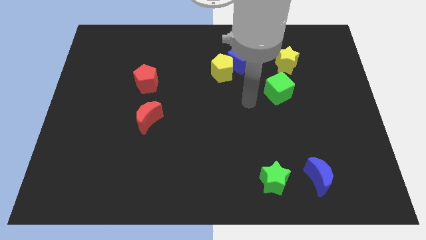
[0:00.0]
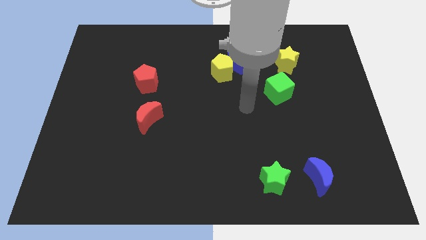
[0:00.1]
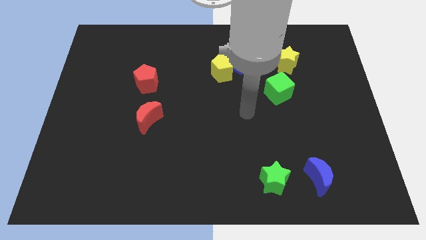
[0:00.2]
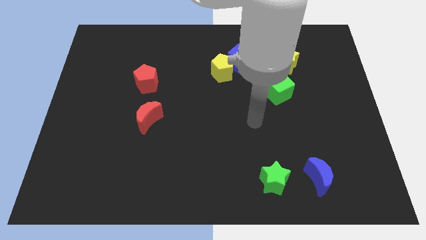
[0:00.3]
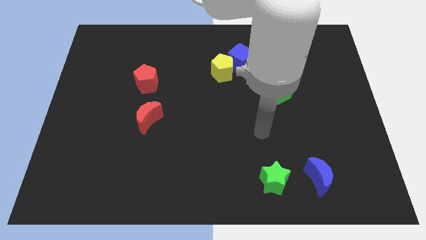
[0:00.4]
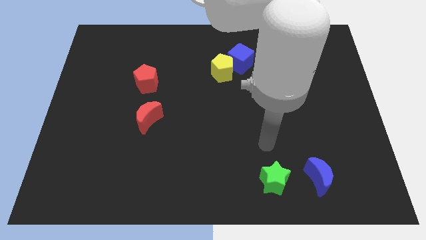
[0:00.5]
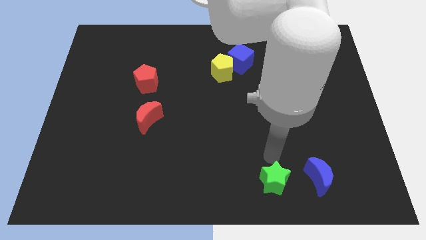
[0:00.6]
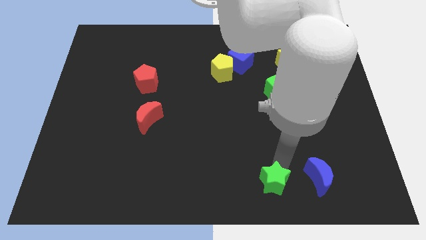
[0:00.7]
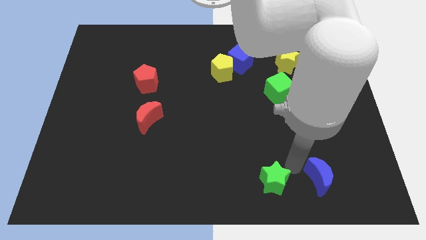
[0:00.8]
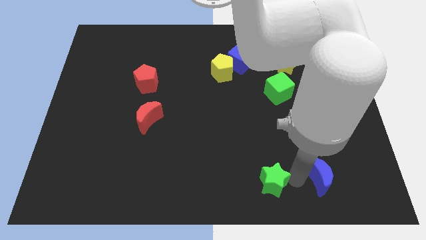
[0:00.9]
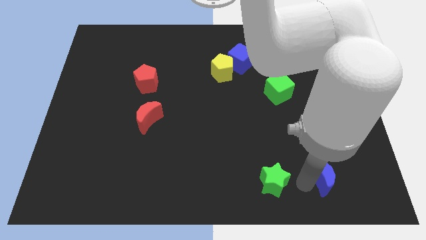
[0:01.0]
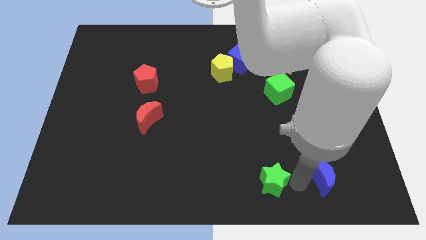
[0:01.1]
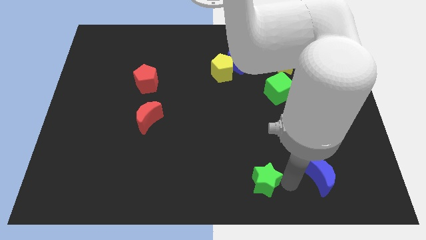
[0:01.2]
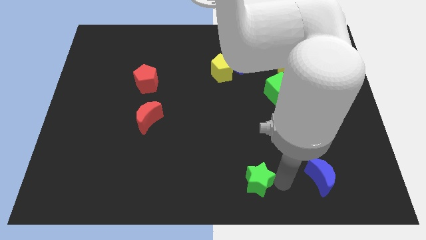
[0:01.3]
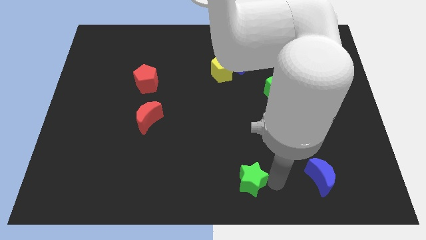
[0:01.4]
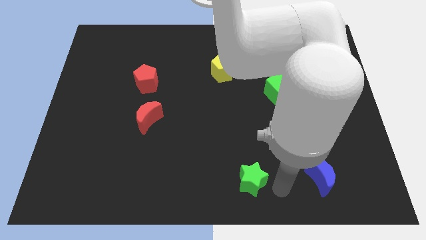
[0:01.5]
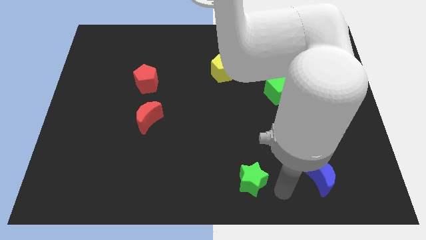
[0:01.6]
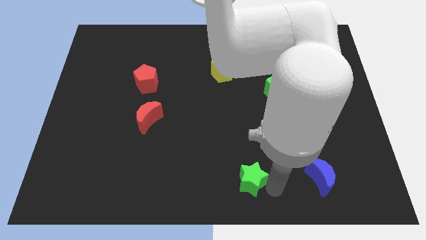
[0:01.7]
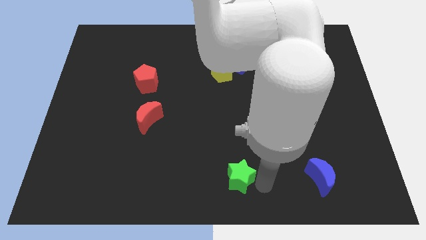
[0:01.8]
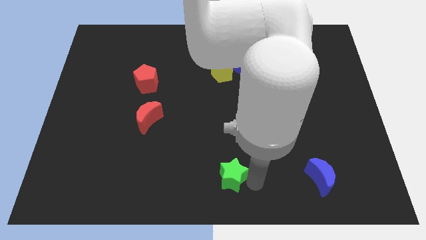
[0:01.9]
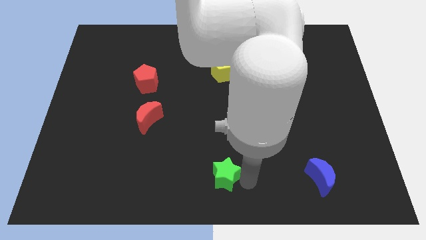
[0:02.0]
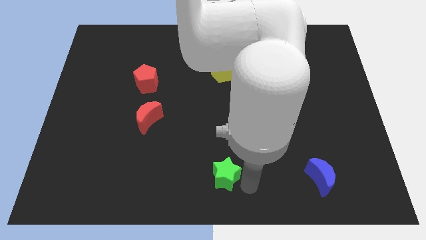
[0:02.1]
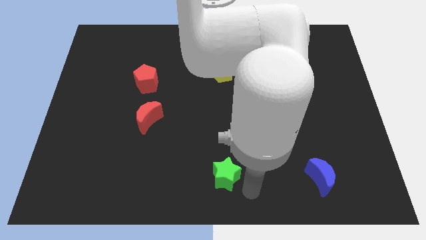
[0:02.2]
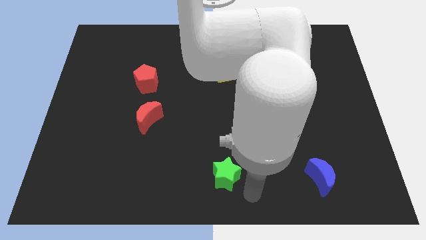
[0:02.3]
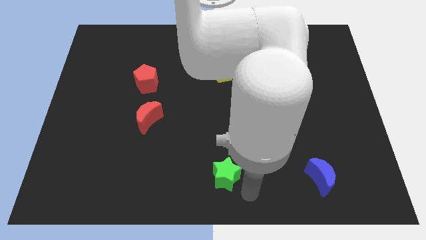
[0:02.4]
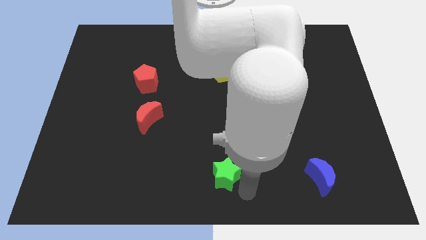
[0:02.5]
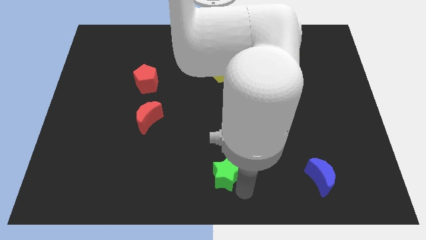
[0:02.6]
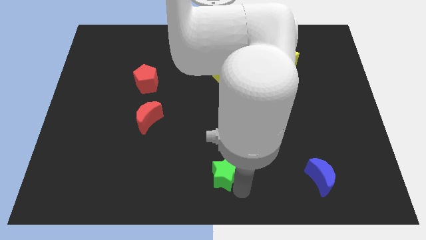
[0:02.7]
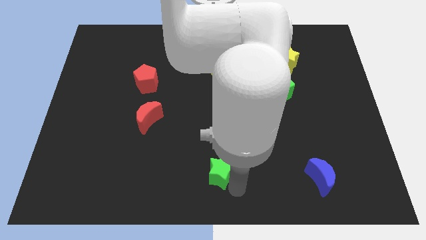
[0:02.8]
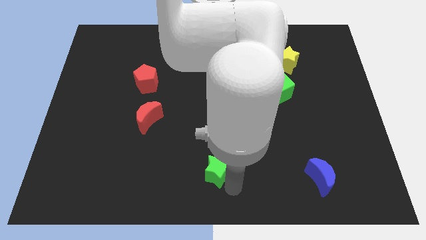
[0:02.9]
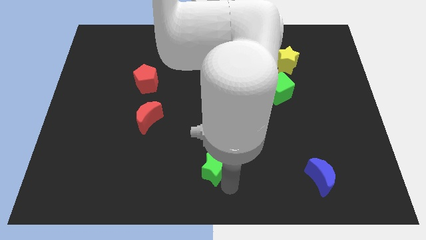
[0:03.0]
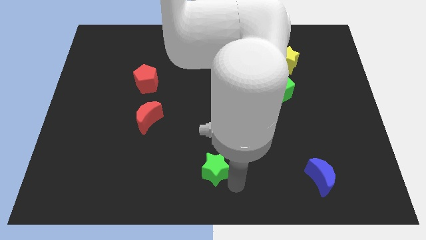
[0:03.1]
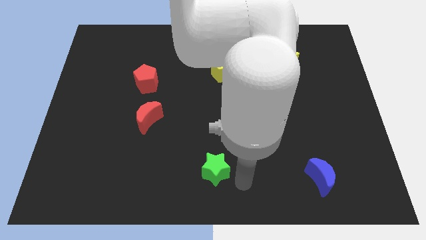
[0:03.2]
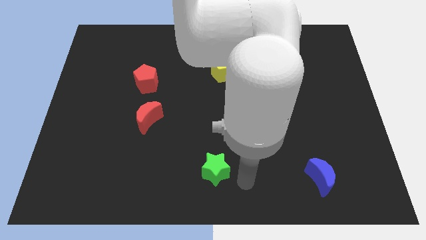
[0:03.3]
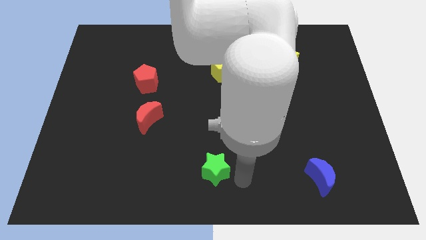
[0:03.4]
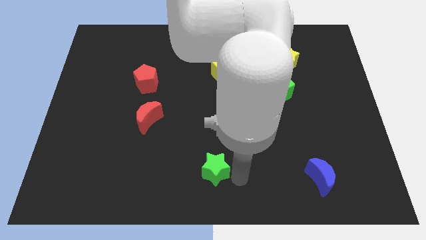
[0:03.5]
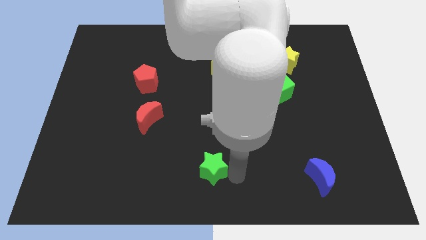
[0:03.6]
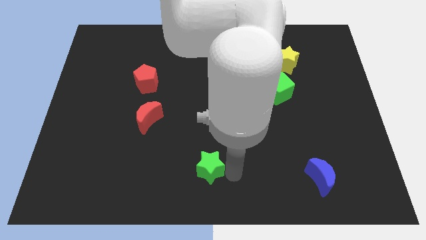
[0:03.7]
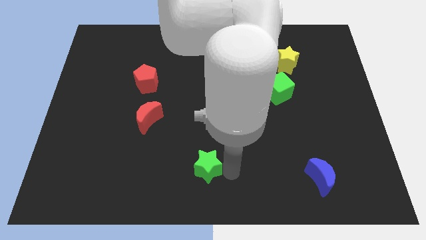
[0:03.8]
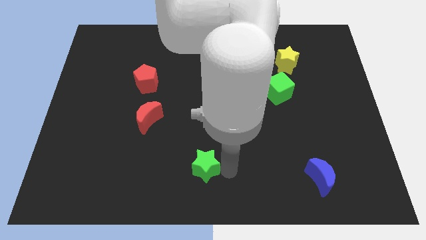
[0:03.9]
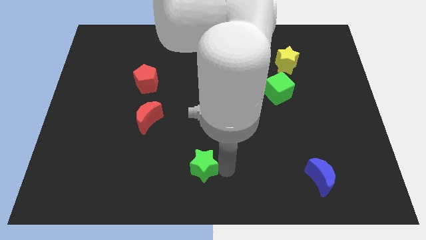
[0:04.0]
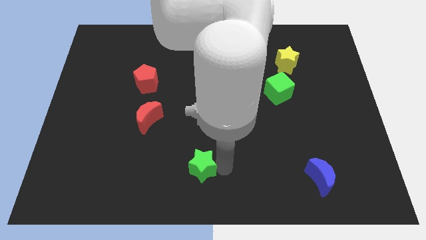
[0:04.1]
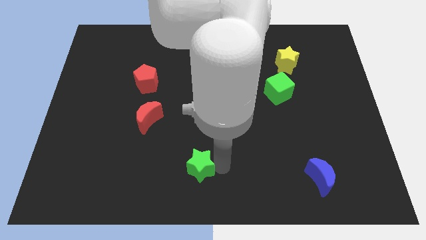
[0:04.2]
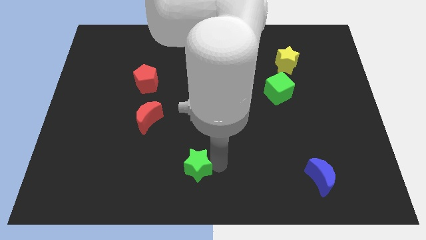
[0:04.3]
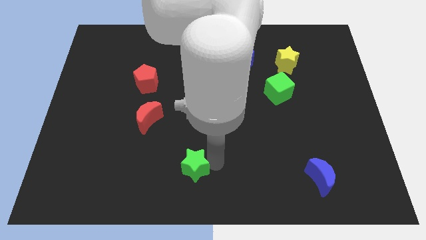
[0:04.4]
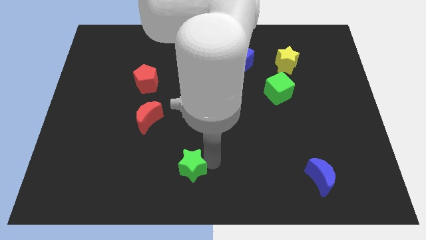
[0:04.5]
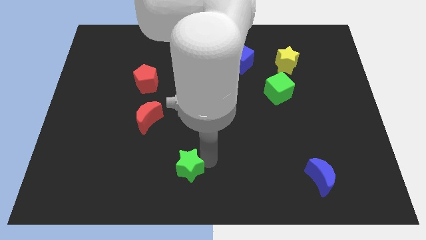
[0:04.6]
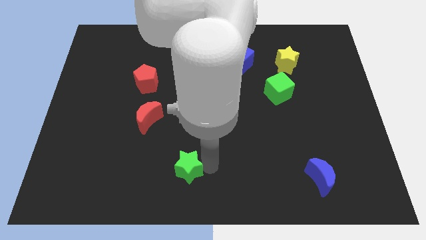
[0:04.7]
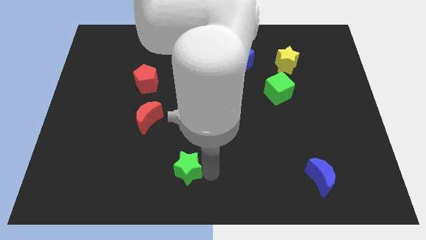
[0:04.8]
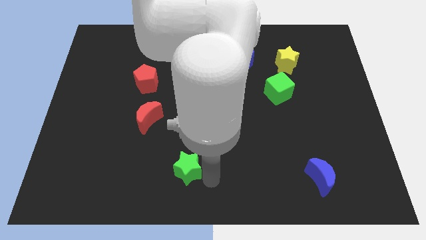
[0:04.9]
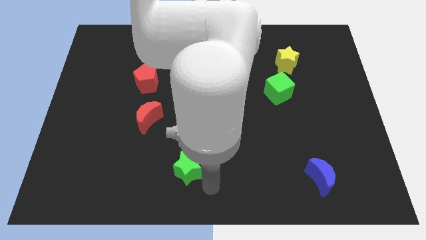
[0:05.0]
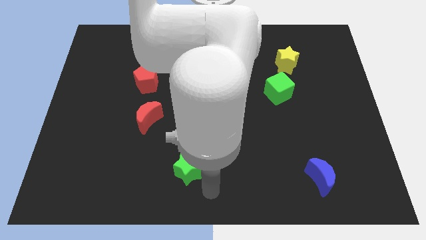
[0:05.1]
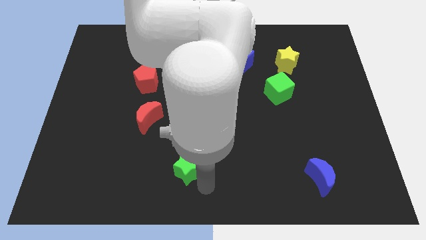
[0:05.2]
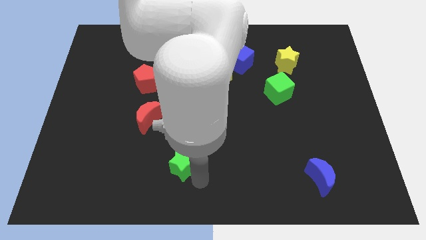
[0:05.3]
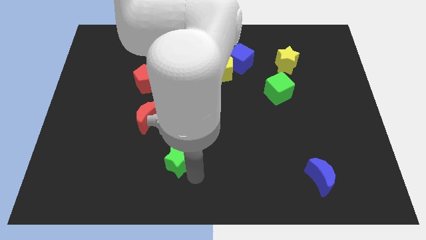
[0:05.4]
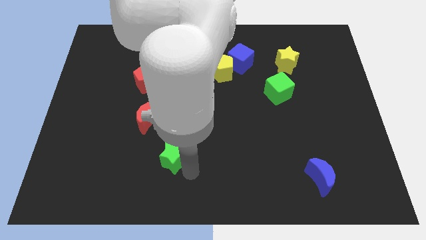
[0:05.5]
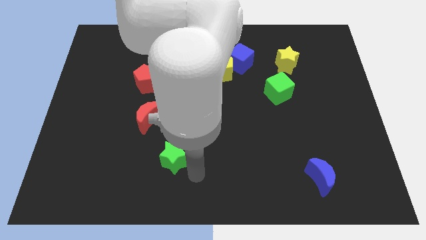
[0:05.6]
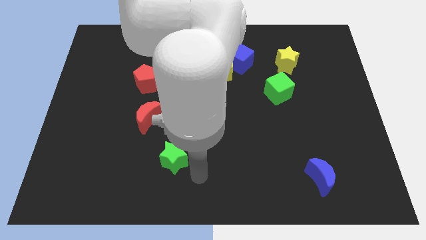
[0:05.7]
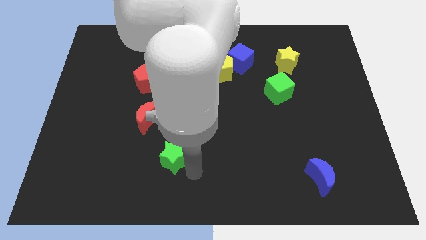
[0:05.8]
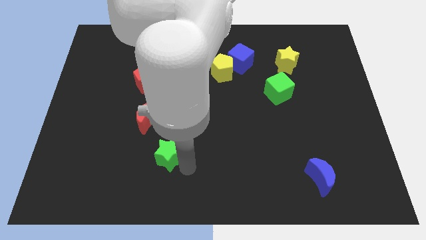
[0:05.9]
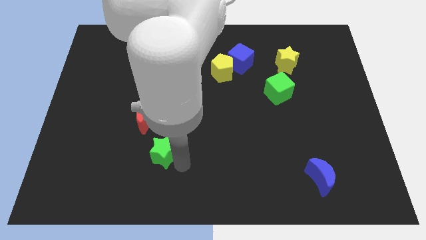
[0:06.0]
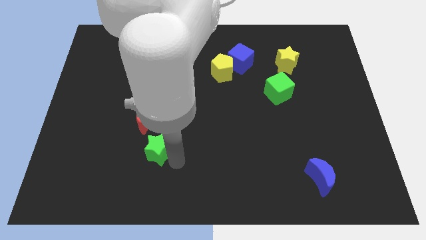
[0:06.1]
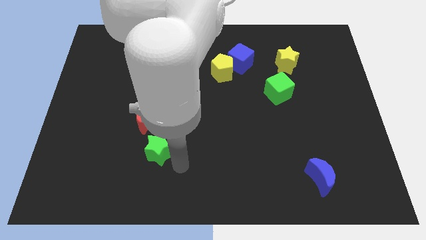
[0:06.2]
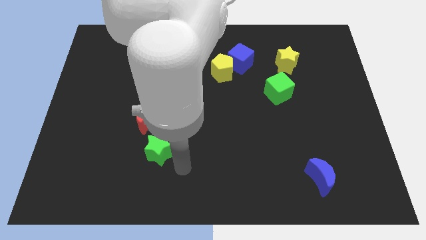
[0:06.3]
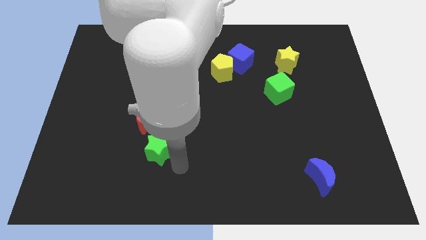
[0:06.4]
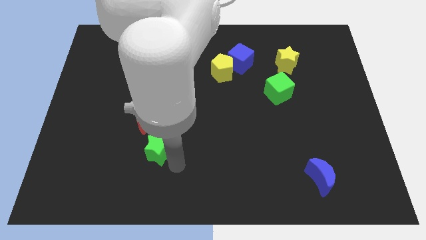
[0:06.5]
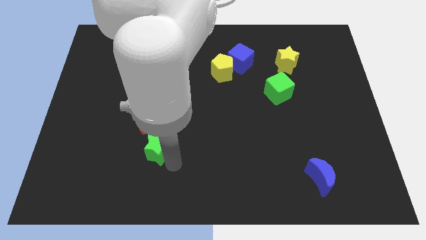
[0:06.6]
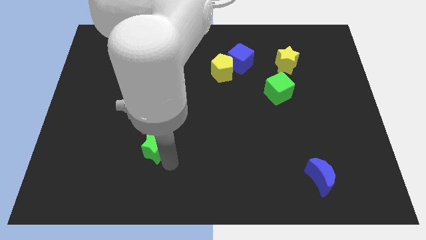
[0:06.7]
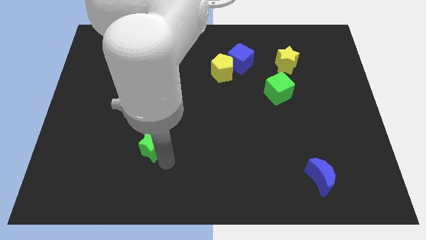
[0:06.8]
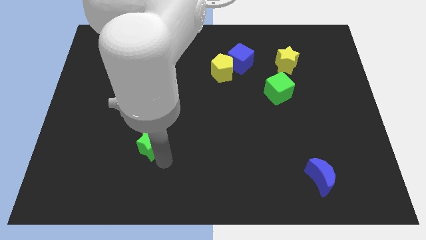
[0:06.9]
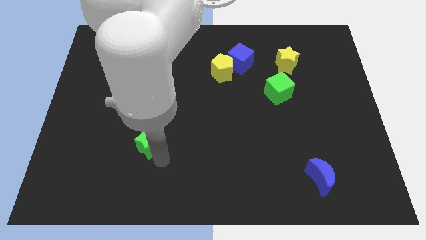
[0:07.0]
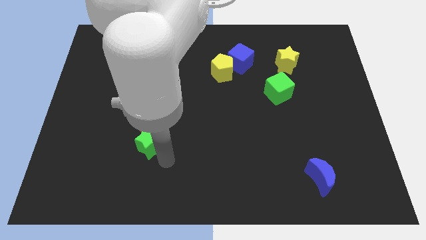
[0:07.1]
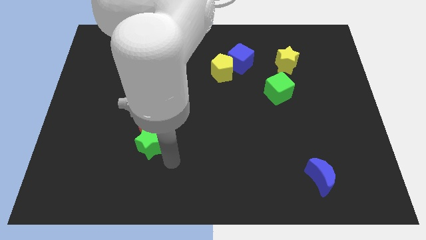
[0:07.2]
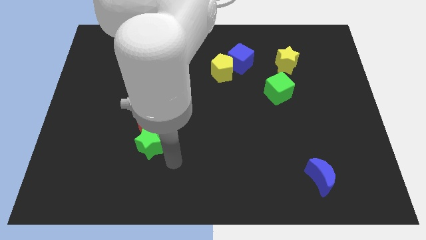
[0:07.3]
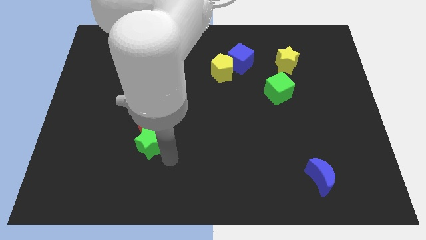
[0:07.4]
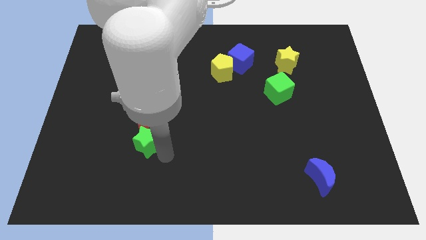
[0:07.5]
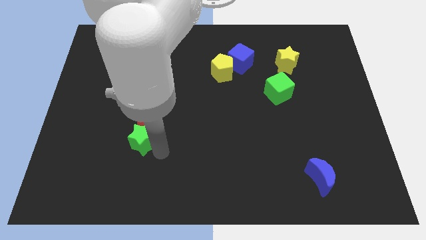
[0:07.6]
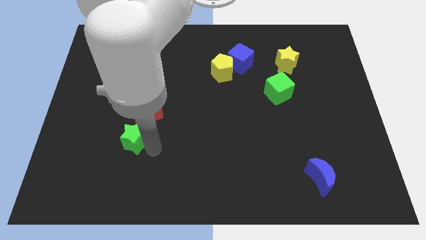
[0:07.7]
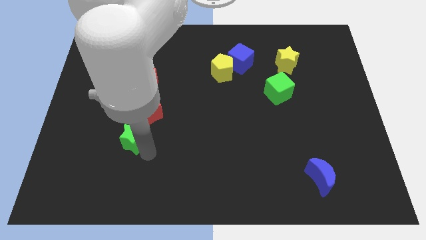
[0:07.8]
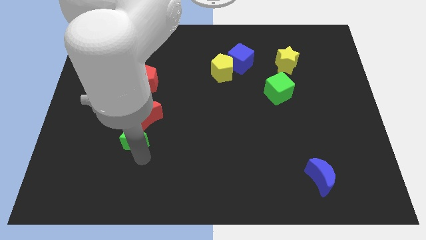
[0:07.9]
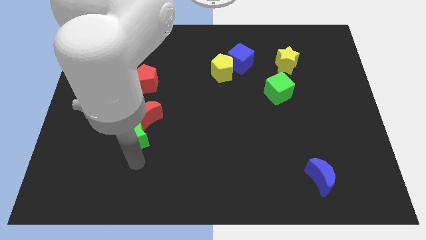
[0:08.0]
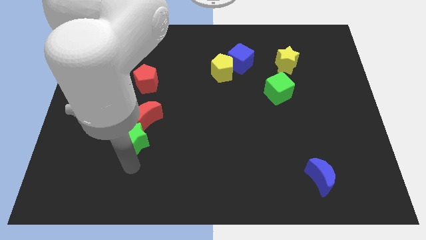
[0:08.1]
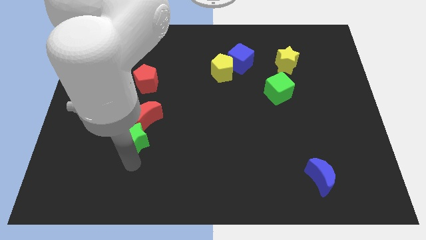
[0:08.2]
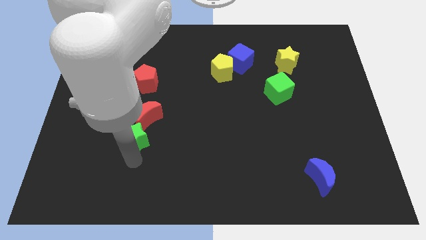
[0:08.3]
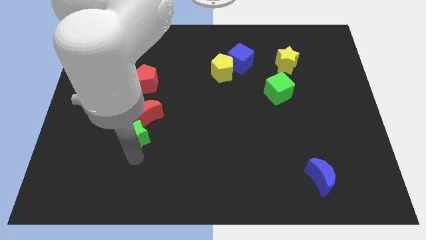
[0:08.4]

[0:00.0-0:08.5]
move the green star to the bottom of the red pentagon
